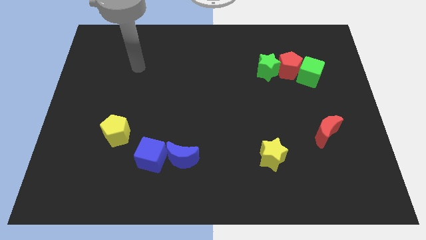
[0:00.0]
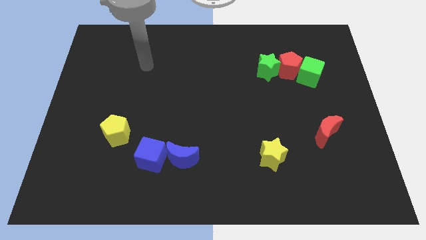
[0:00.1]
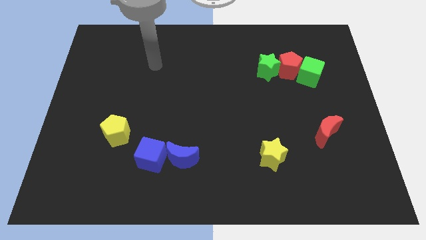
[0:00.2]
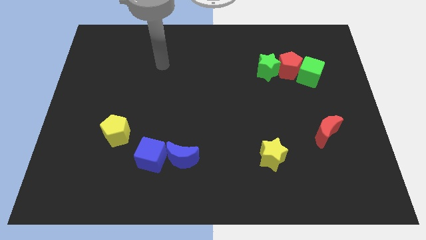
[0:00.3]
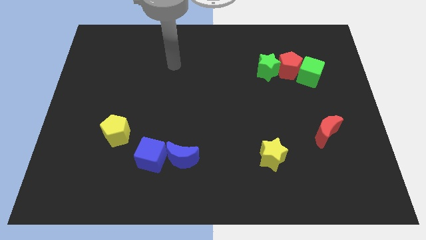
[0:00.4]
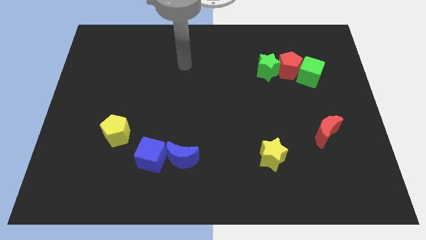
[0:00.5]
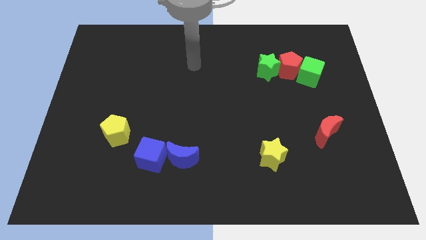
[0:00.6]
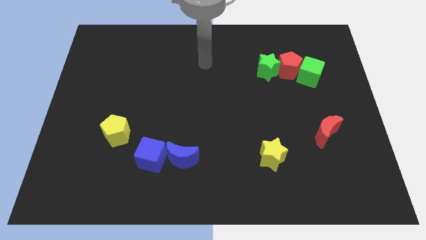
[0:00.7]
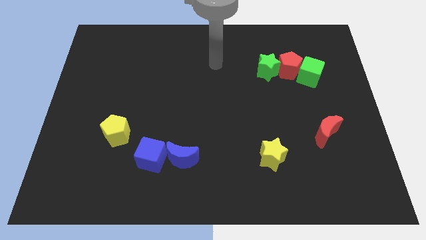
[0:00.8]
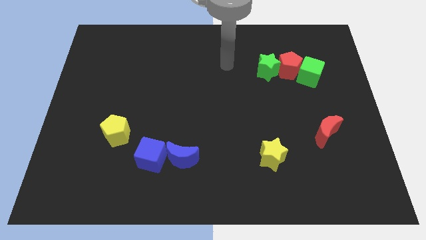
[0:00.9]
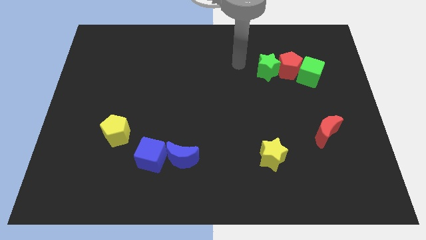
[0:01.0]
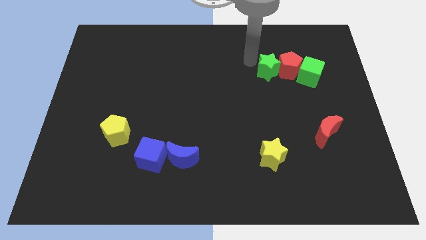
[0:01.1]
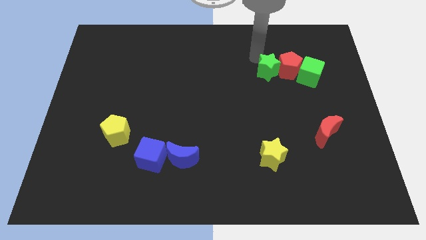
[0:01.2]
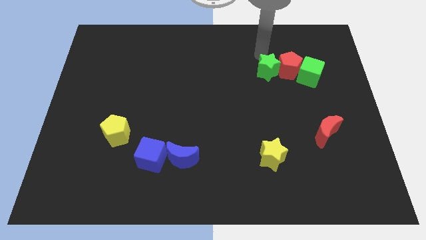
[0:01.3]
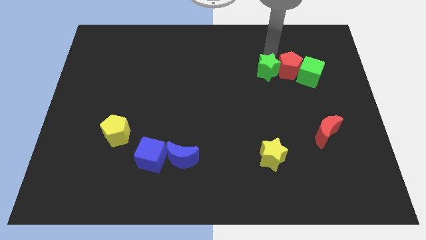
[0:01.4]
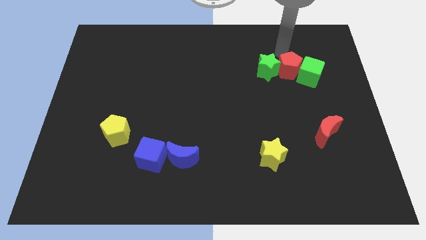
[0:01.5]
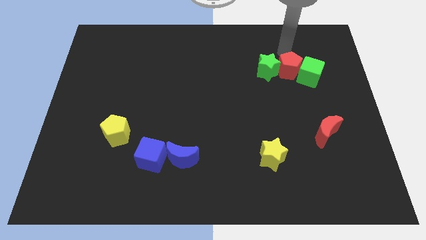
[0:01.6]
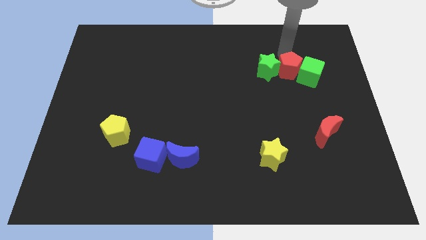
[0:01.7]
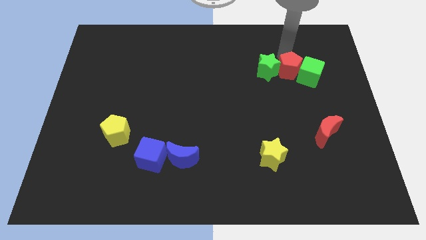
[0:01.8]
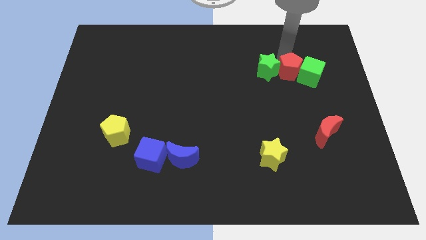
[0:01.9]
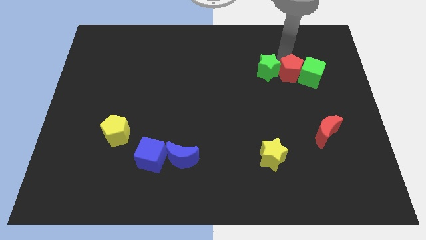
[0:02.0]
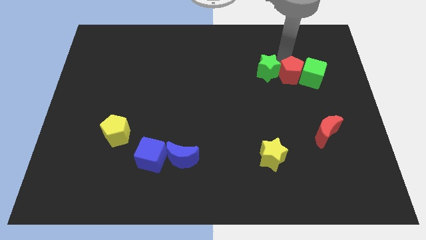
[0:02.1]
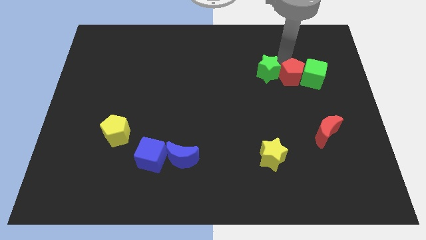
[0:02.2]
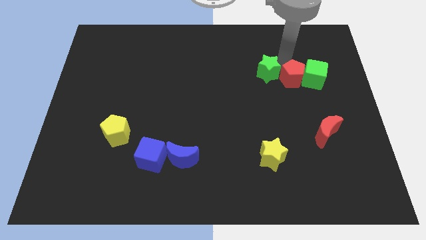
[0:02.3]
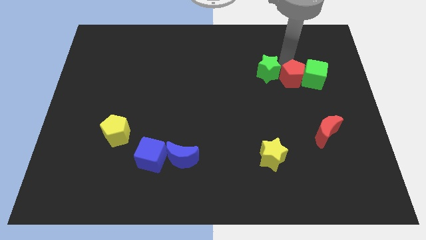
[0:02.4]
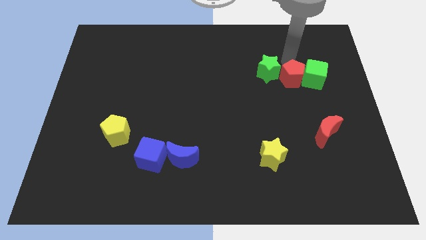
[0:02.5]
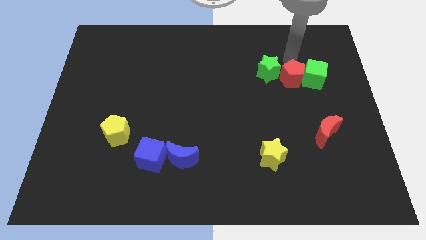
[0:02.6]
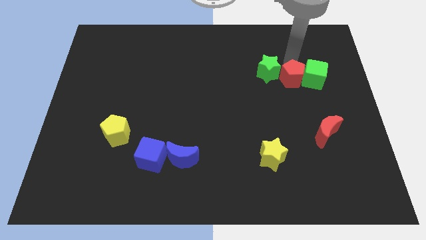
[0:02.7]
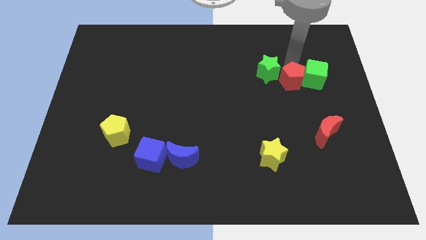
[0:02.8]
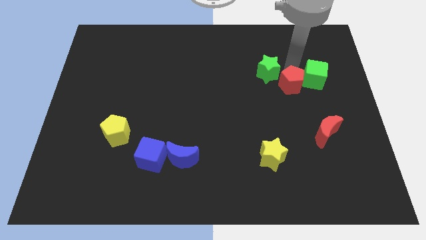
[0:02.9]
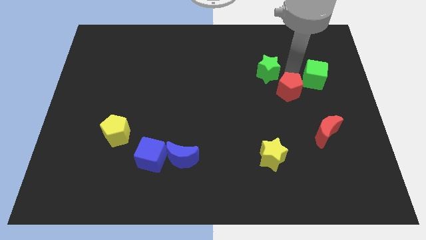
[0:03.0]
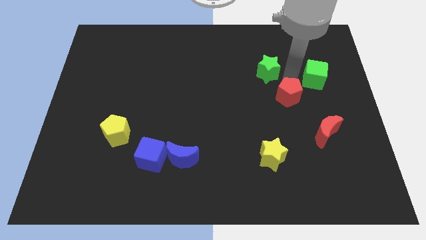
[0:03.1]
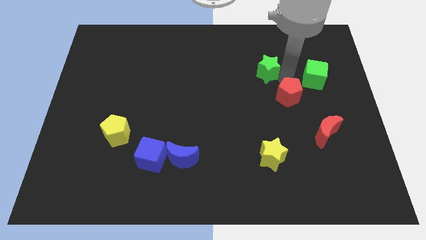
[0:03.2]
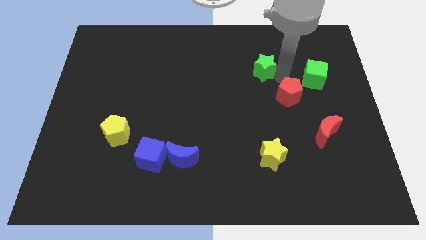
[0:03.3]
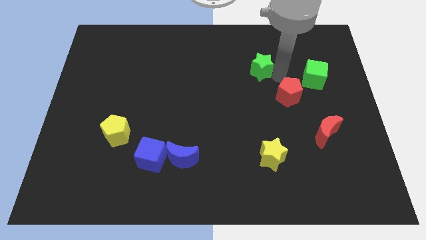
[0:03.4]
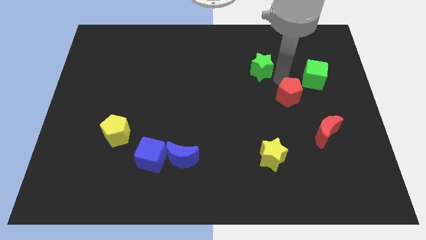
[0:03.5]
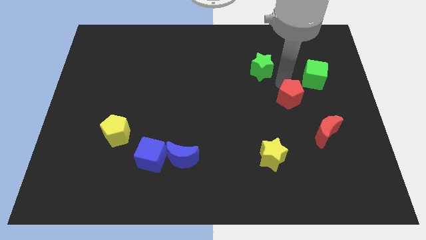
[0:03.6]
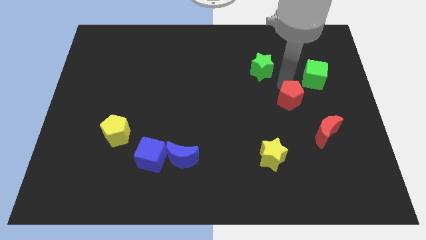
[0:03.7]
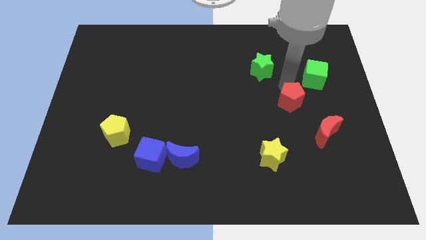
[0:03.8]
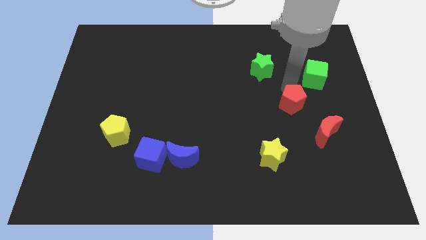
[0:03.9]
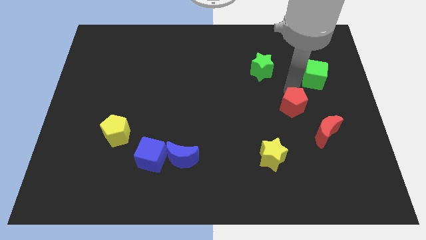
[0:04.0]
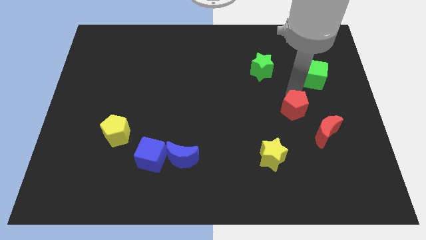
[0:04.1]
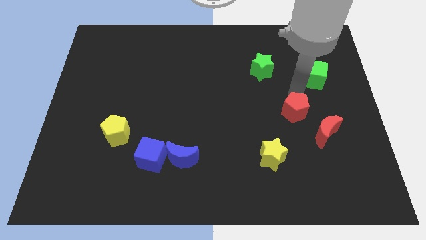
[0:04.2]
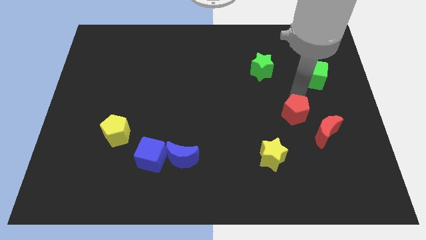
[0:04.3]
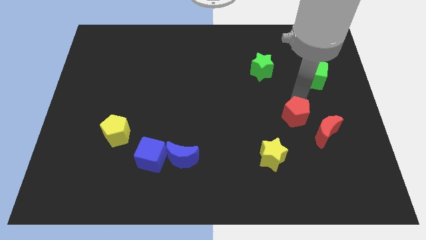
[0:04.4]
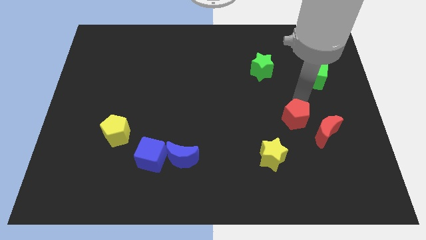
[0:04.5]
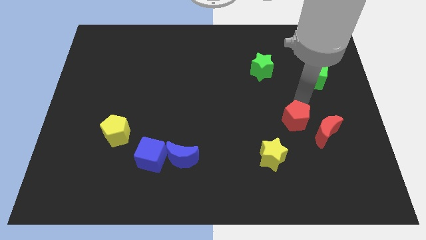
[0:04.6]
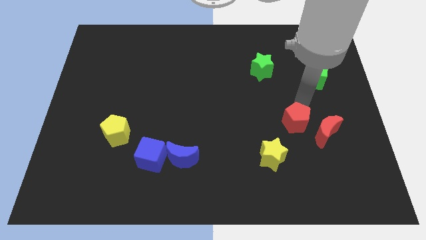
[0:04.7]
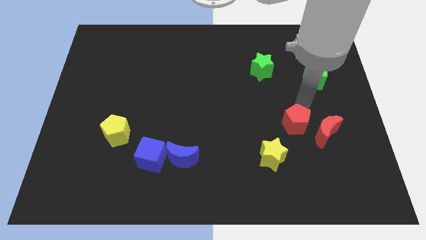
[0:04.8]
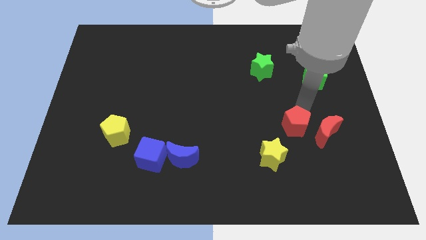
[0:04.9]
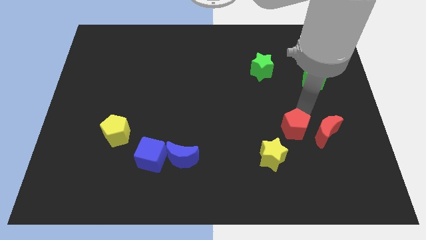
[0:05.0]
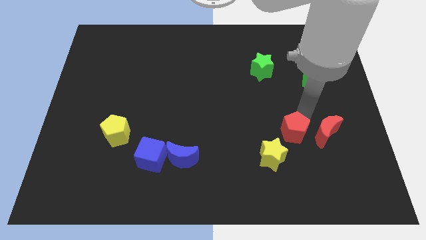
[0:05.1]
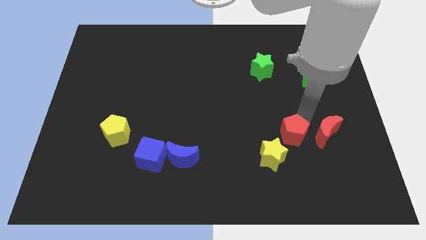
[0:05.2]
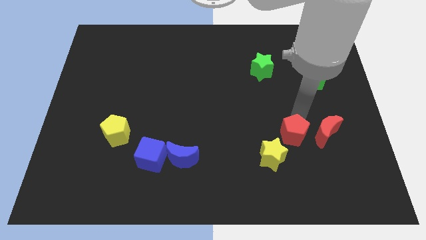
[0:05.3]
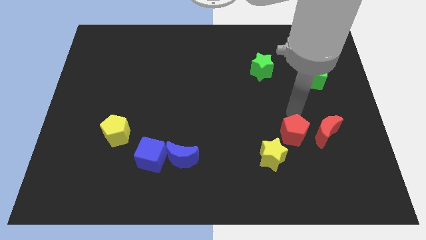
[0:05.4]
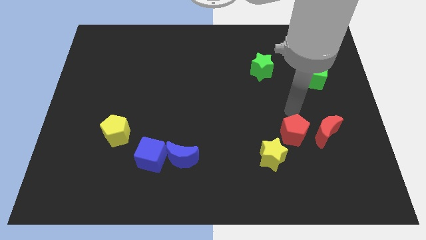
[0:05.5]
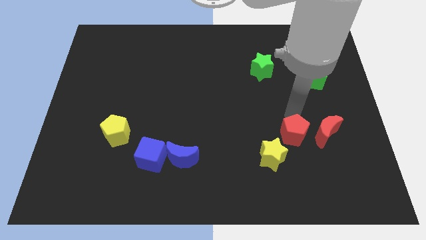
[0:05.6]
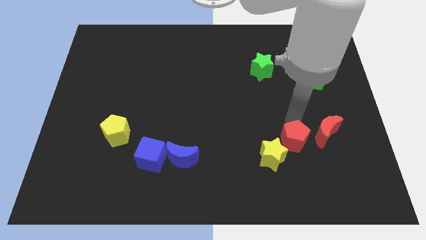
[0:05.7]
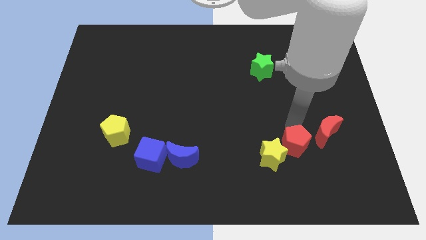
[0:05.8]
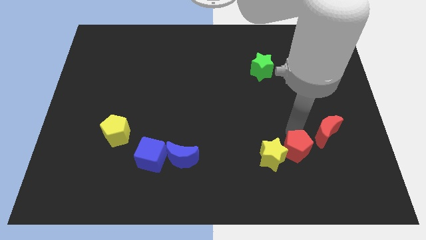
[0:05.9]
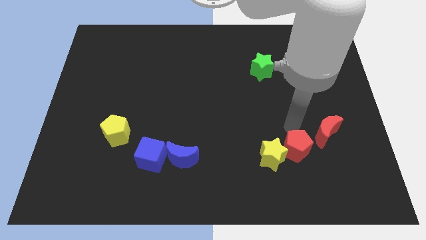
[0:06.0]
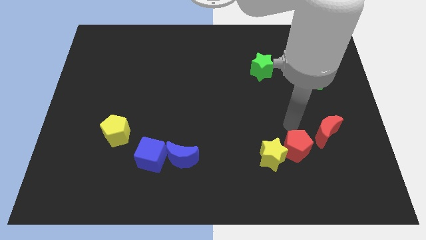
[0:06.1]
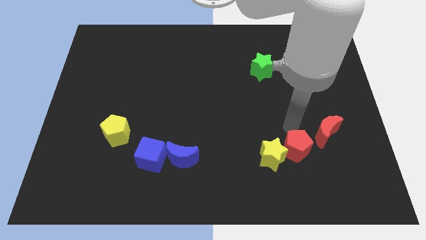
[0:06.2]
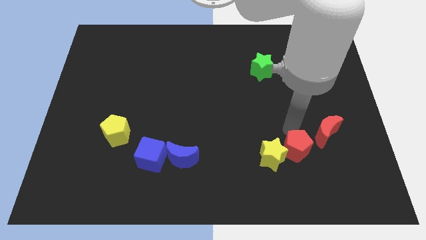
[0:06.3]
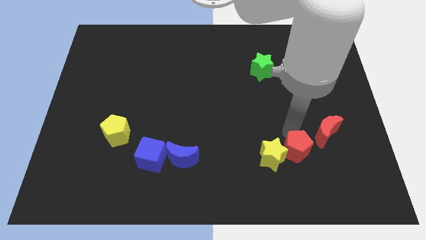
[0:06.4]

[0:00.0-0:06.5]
push the red pentagon diagonally down and to the right of the yellow star

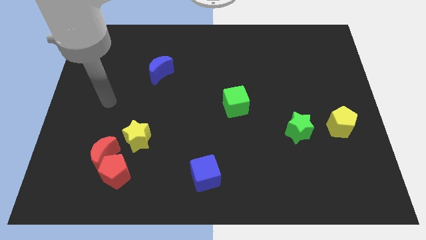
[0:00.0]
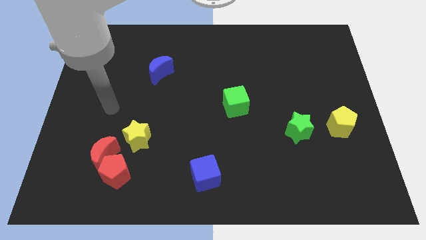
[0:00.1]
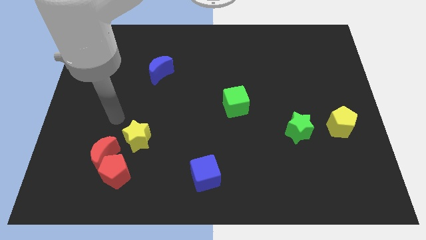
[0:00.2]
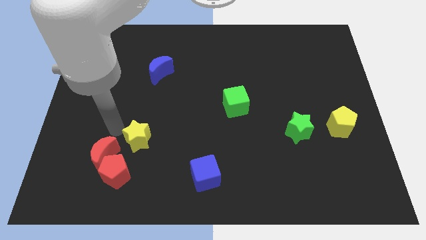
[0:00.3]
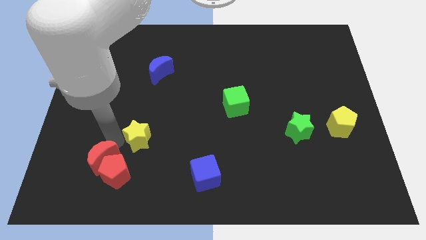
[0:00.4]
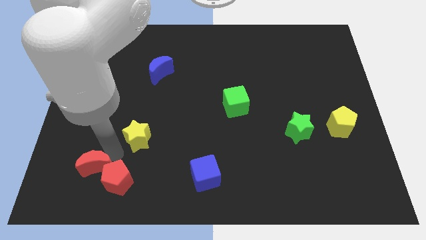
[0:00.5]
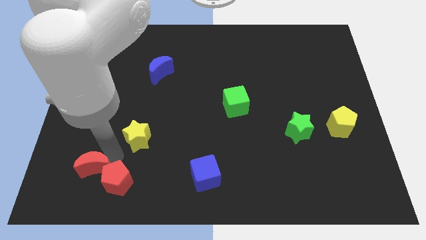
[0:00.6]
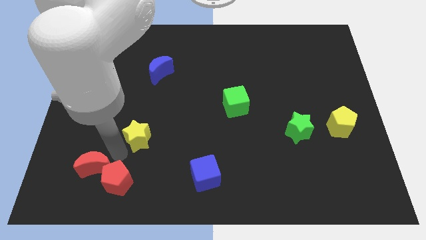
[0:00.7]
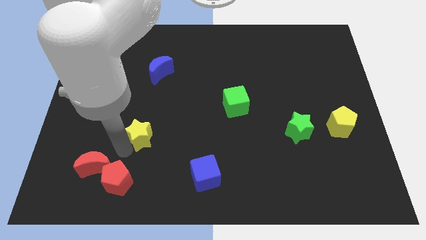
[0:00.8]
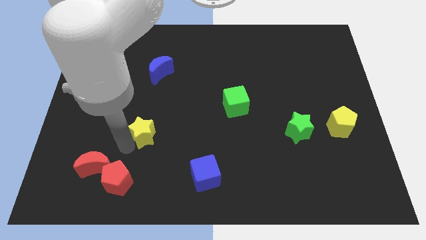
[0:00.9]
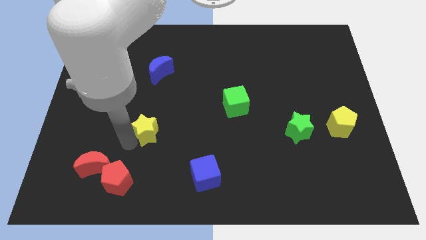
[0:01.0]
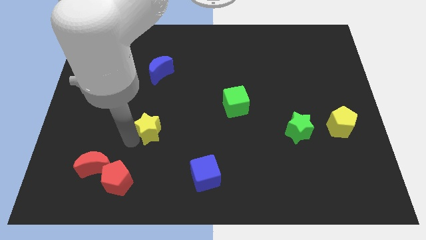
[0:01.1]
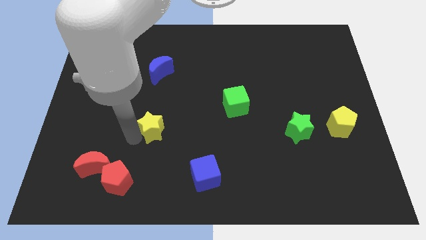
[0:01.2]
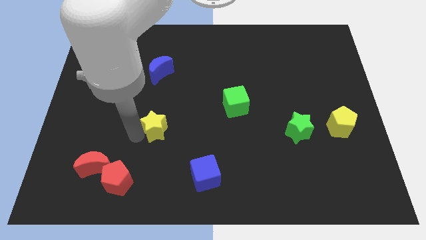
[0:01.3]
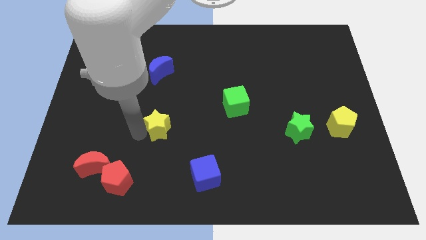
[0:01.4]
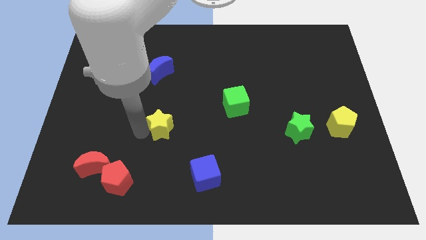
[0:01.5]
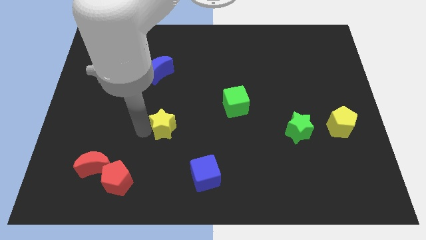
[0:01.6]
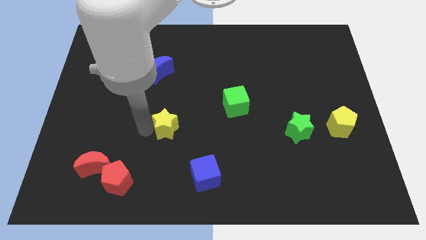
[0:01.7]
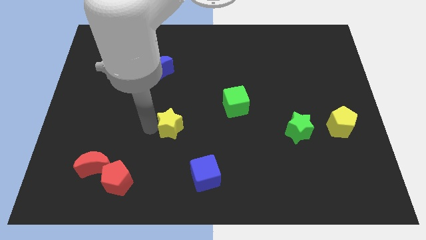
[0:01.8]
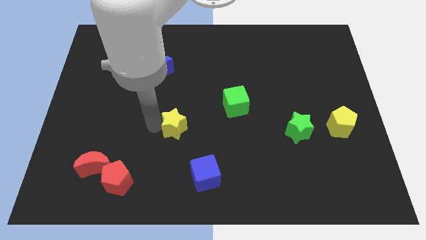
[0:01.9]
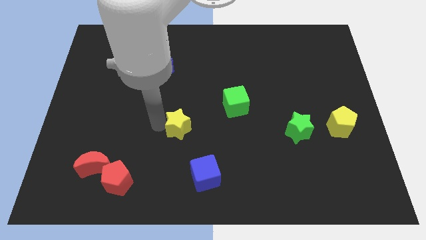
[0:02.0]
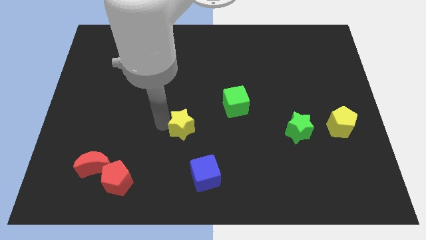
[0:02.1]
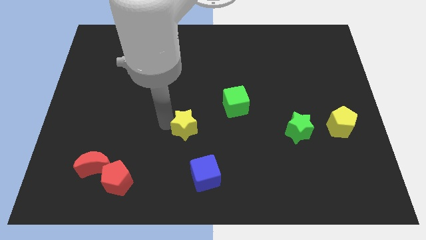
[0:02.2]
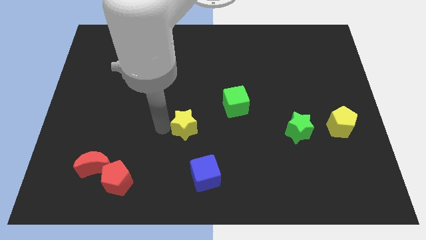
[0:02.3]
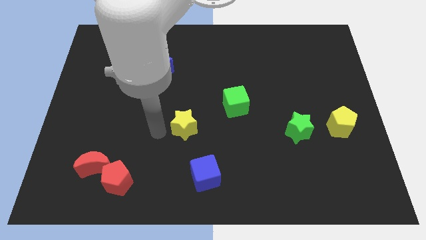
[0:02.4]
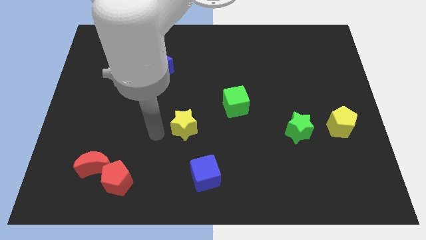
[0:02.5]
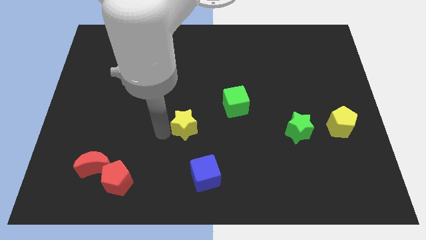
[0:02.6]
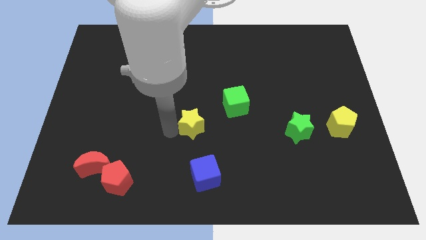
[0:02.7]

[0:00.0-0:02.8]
put the yellow star to the bottom left of the green cube
